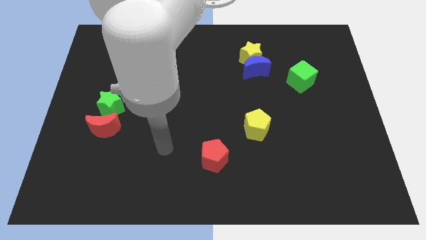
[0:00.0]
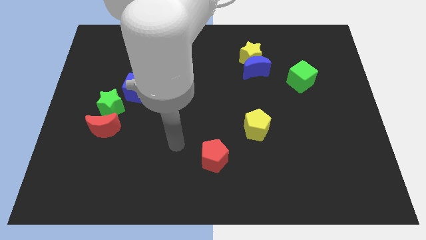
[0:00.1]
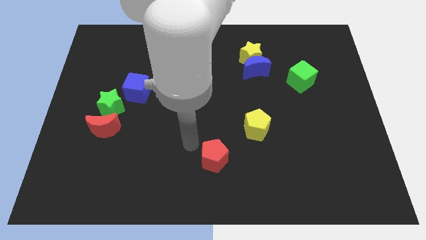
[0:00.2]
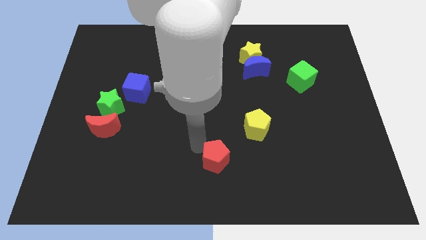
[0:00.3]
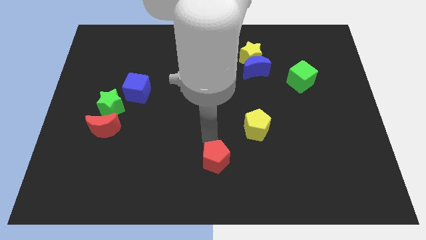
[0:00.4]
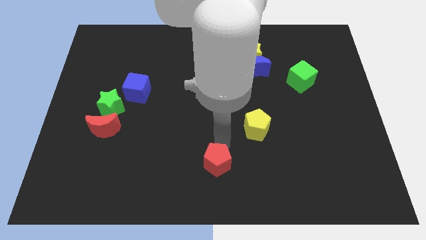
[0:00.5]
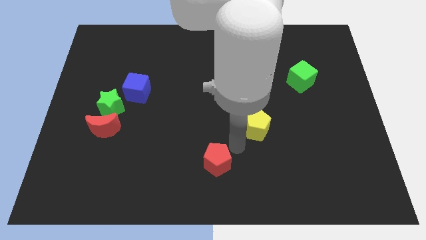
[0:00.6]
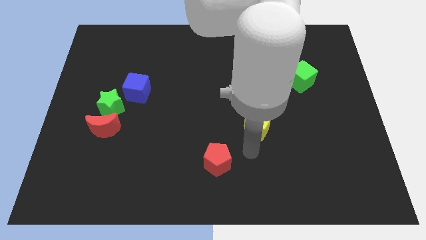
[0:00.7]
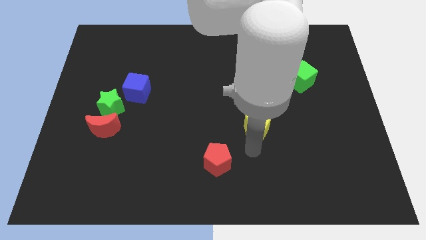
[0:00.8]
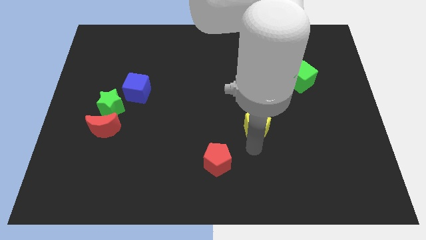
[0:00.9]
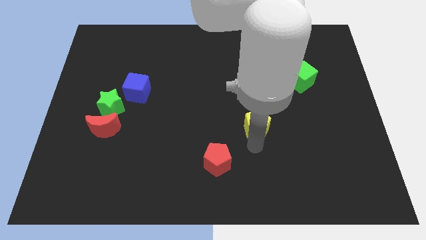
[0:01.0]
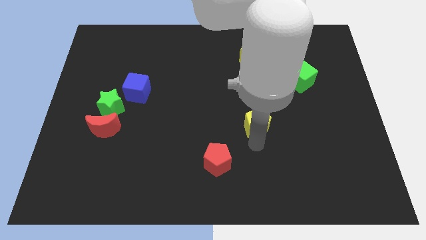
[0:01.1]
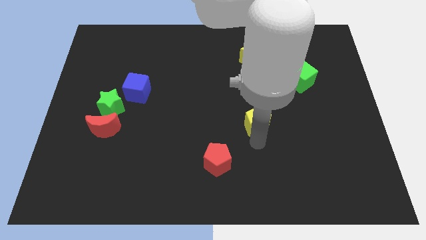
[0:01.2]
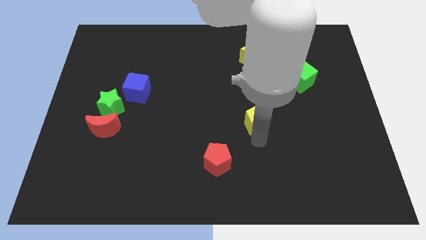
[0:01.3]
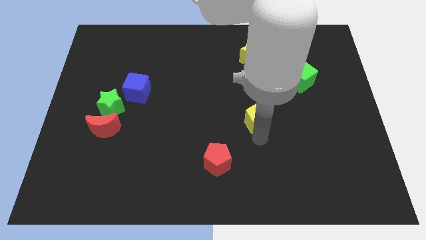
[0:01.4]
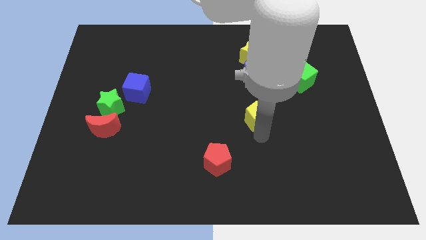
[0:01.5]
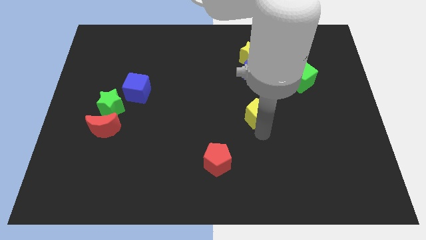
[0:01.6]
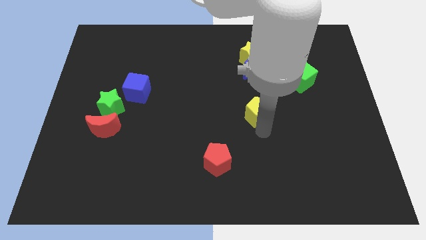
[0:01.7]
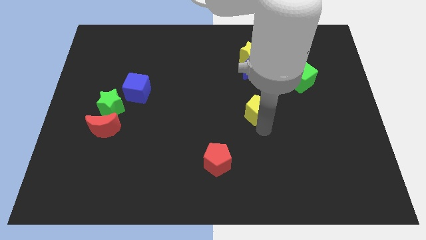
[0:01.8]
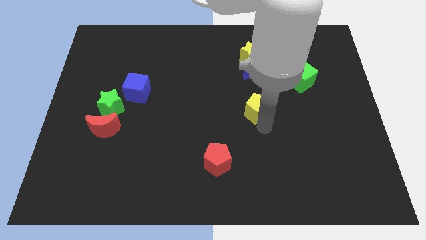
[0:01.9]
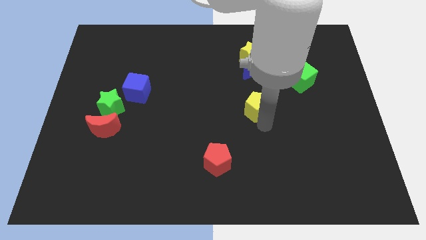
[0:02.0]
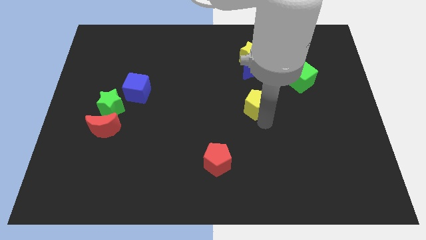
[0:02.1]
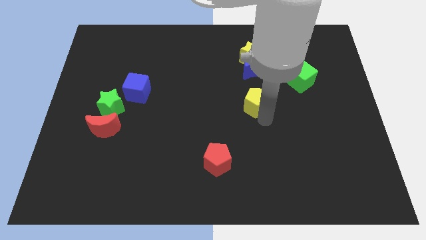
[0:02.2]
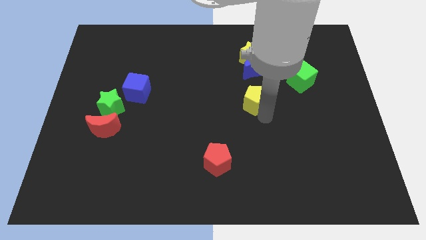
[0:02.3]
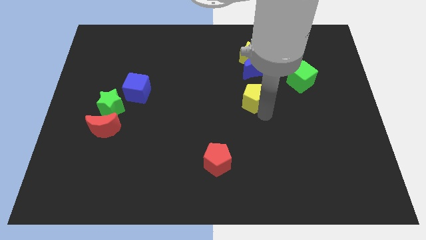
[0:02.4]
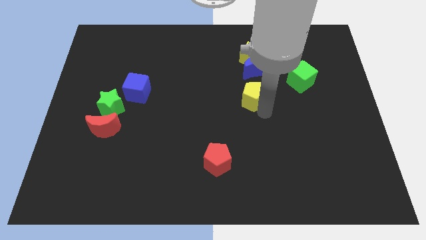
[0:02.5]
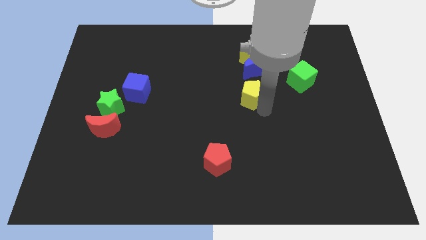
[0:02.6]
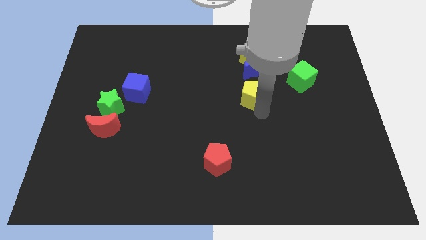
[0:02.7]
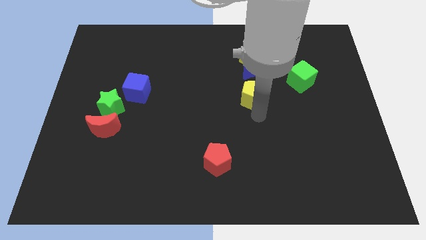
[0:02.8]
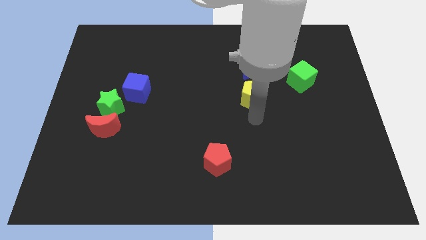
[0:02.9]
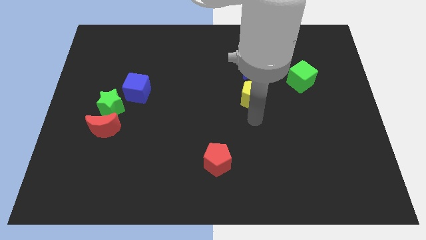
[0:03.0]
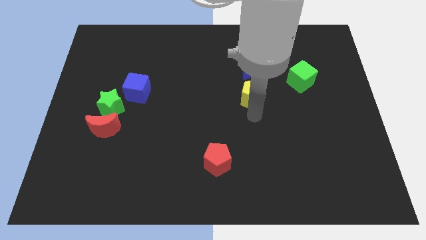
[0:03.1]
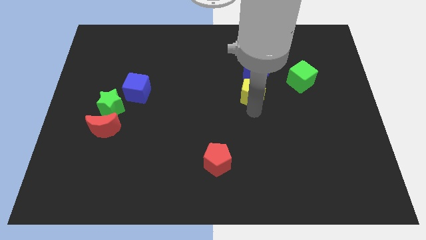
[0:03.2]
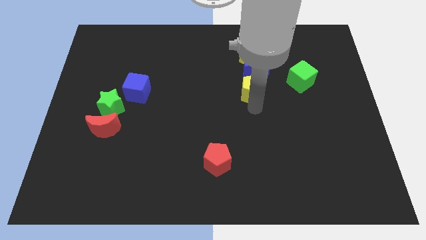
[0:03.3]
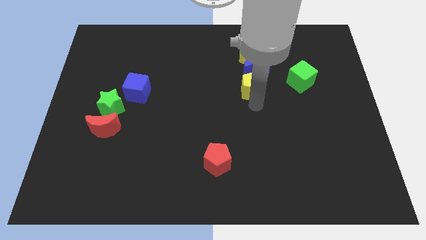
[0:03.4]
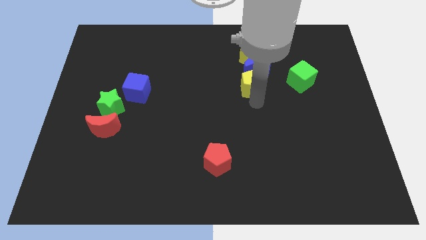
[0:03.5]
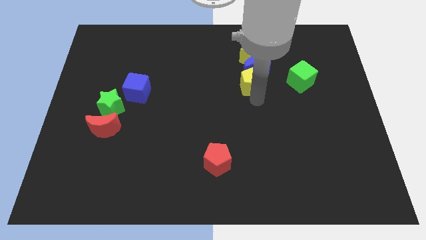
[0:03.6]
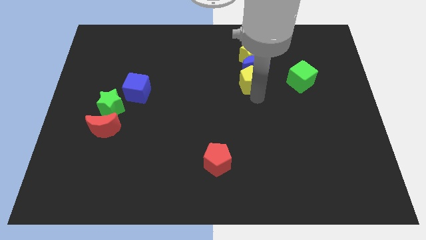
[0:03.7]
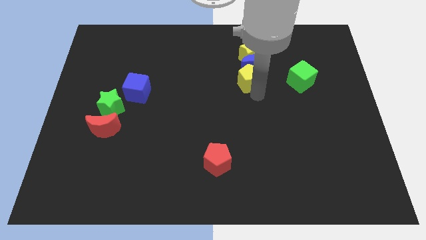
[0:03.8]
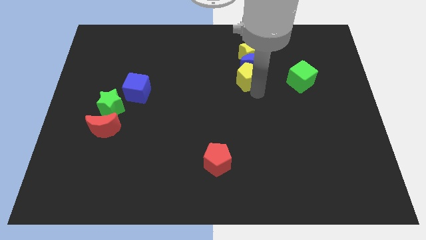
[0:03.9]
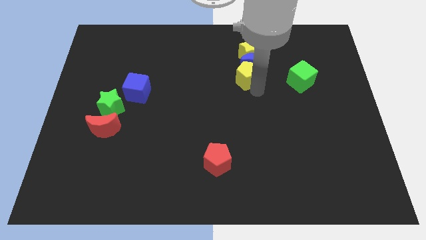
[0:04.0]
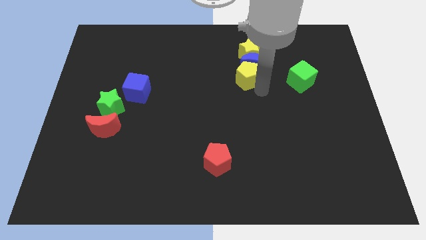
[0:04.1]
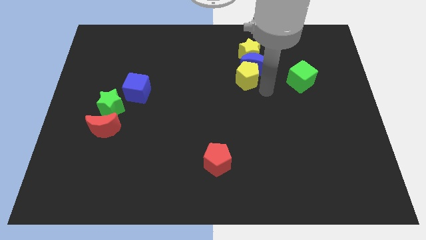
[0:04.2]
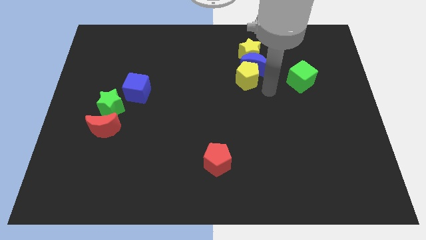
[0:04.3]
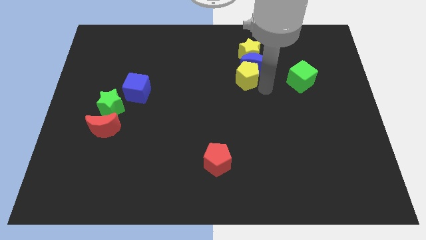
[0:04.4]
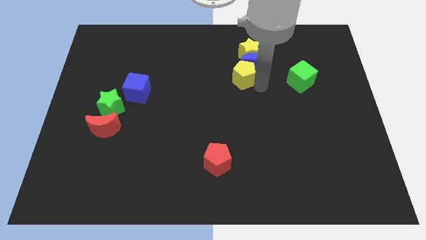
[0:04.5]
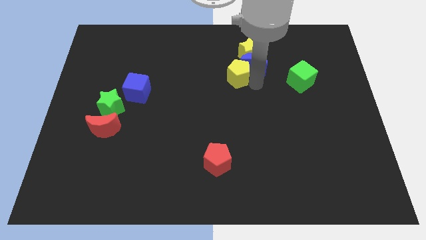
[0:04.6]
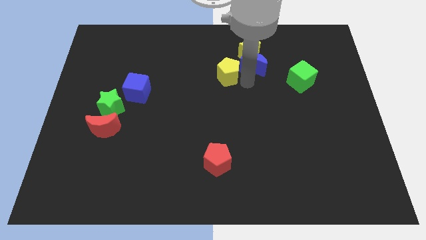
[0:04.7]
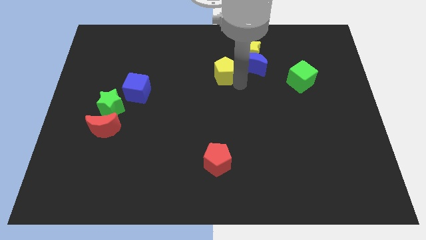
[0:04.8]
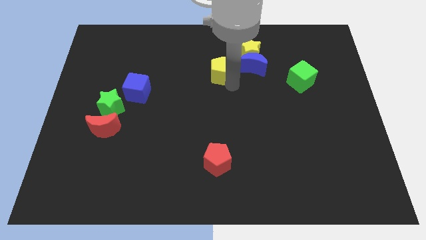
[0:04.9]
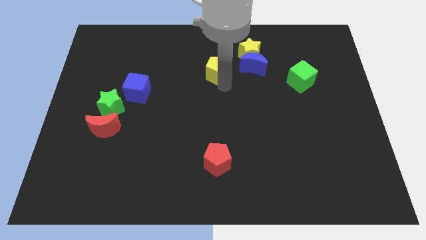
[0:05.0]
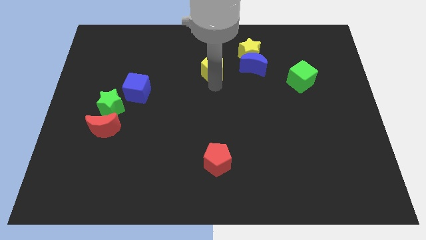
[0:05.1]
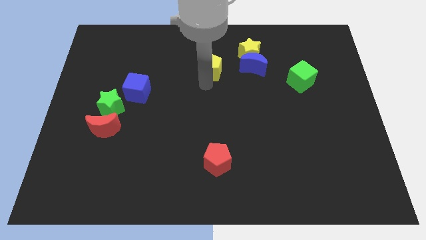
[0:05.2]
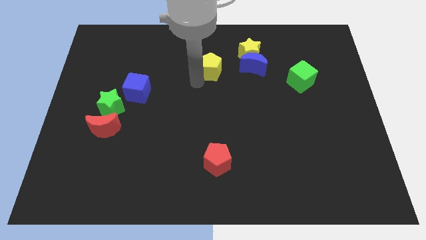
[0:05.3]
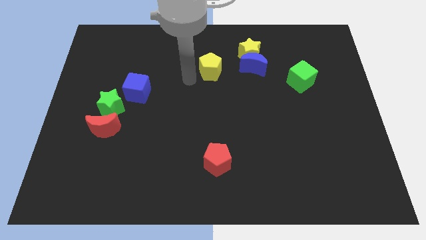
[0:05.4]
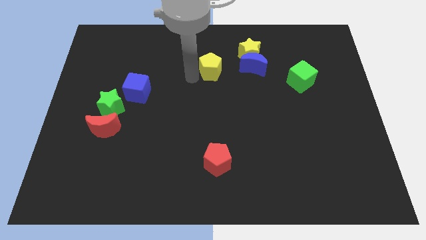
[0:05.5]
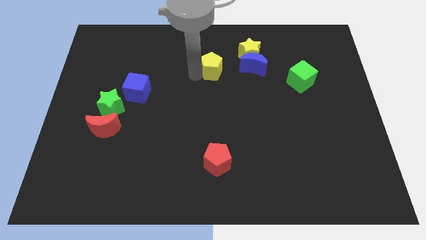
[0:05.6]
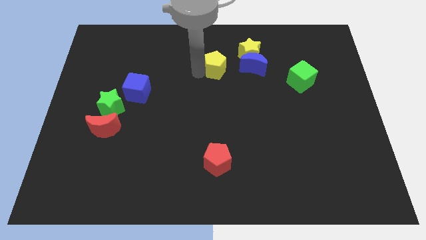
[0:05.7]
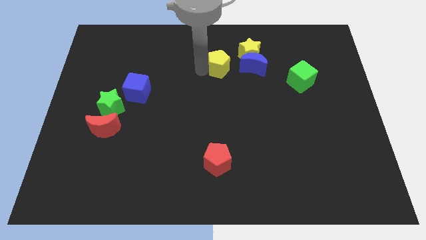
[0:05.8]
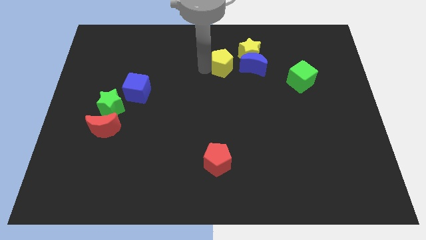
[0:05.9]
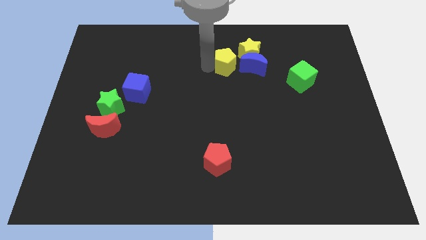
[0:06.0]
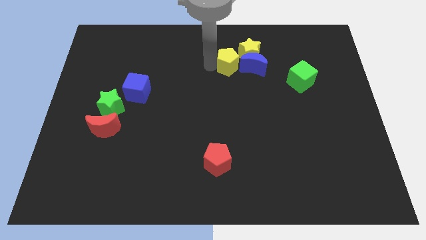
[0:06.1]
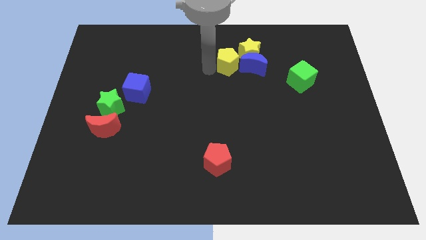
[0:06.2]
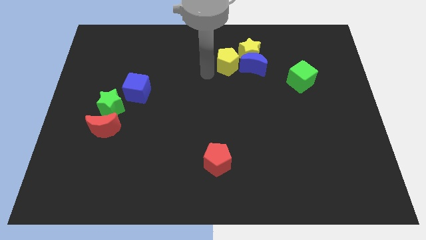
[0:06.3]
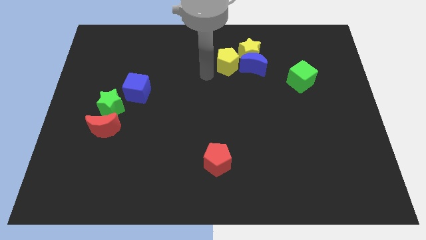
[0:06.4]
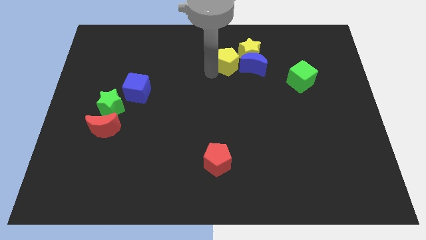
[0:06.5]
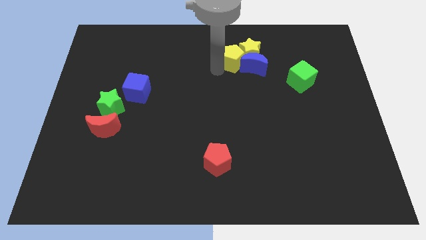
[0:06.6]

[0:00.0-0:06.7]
put the yellow pentagon to the yellow star
